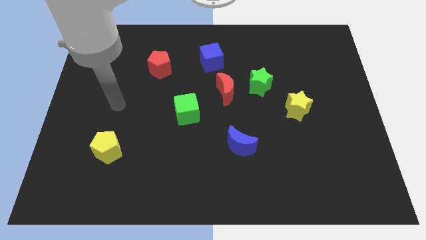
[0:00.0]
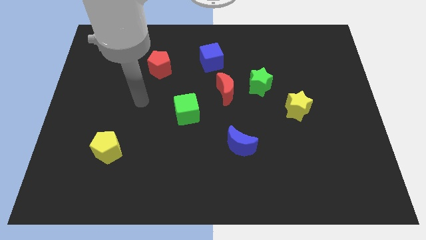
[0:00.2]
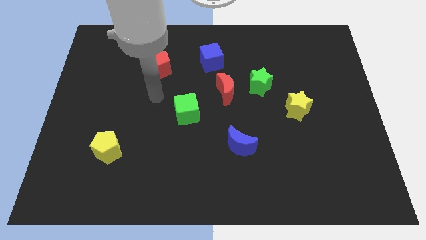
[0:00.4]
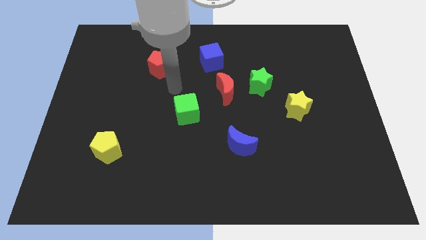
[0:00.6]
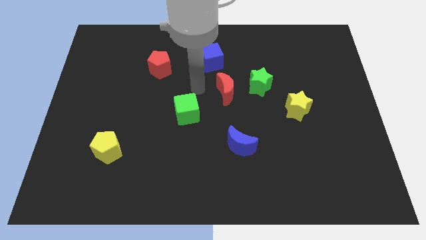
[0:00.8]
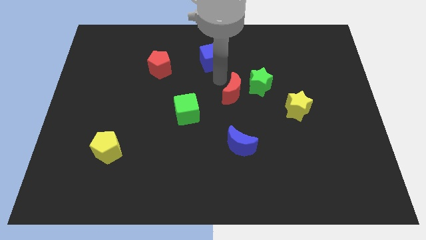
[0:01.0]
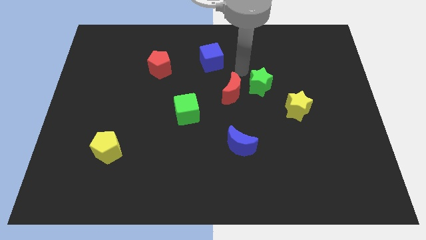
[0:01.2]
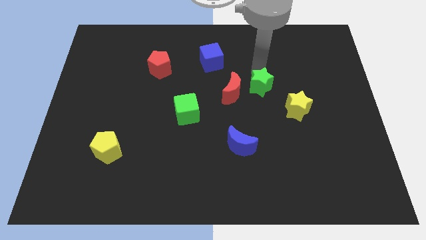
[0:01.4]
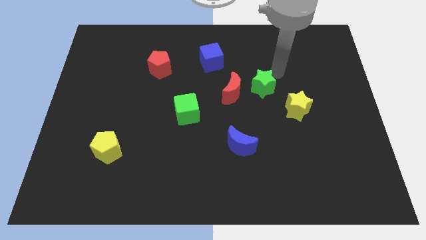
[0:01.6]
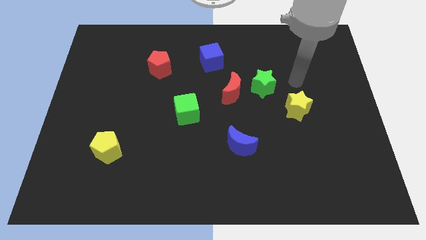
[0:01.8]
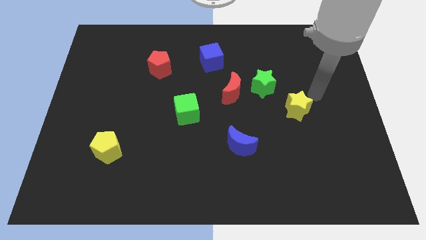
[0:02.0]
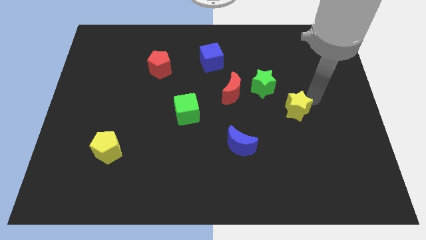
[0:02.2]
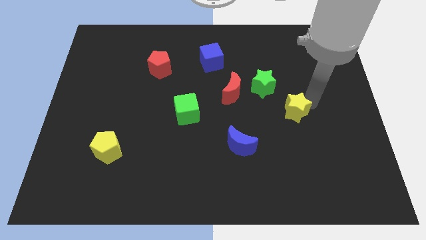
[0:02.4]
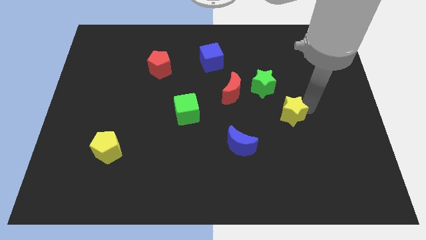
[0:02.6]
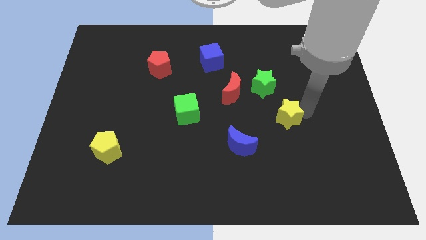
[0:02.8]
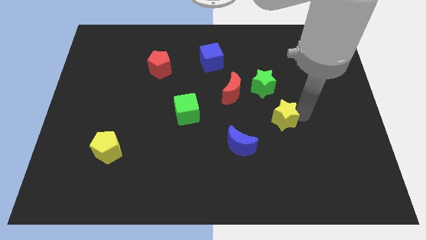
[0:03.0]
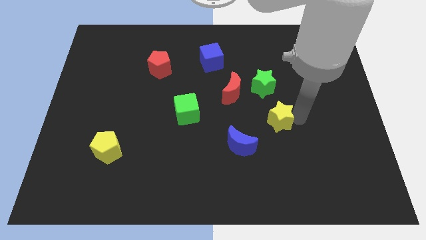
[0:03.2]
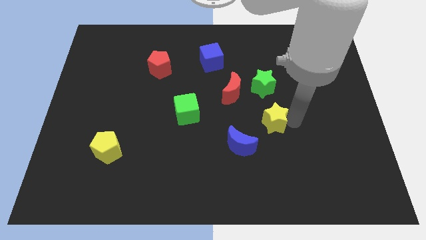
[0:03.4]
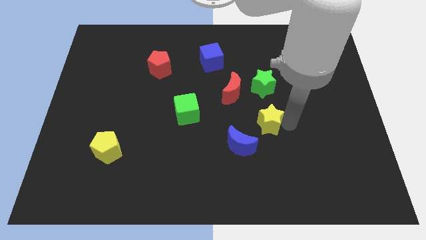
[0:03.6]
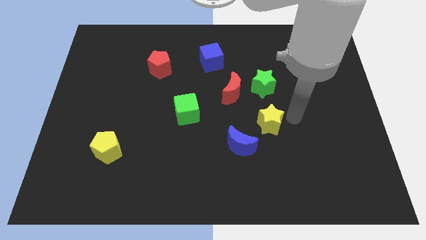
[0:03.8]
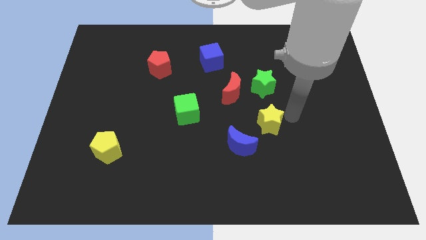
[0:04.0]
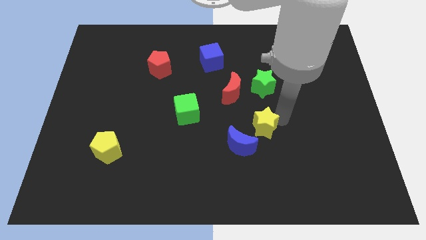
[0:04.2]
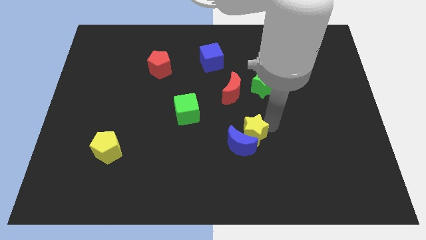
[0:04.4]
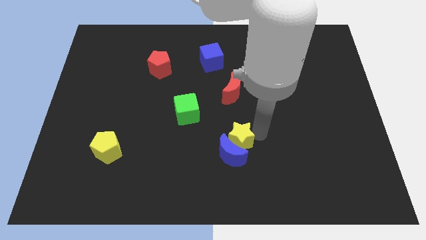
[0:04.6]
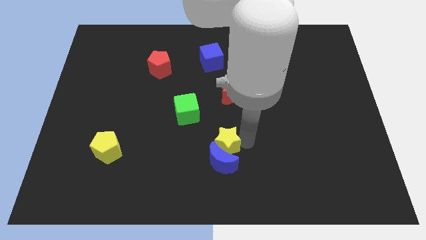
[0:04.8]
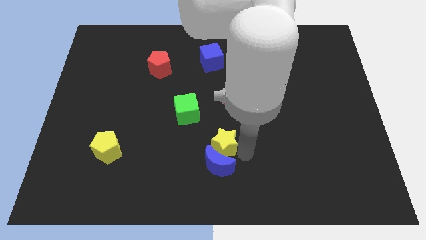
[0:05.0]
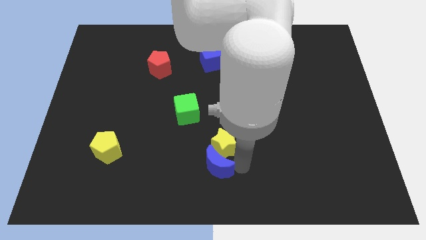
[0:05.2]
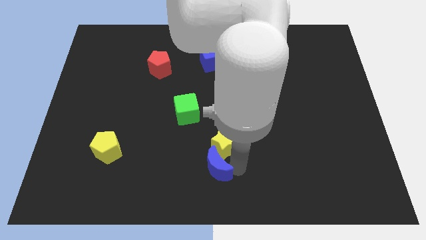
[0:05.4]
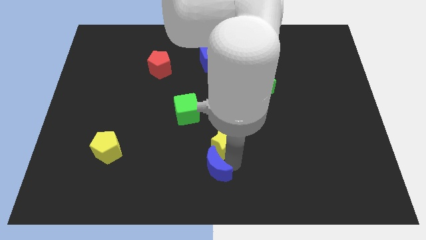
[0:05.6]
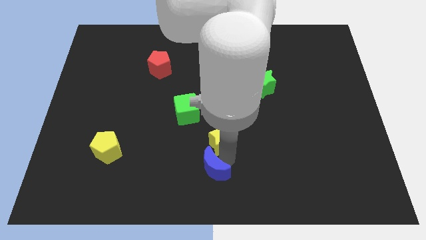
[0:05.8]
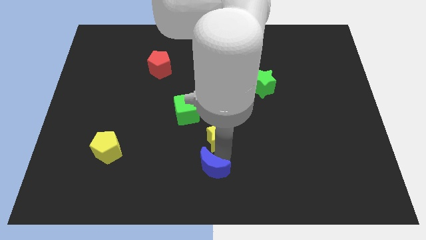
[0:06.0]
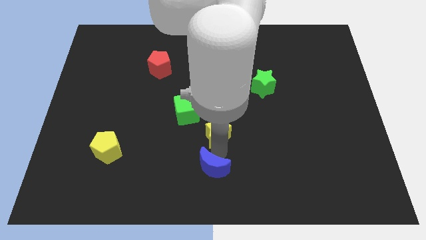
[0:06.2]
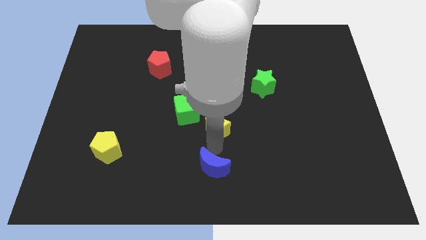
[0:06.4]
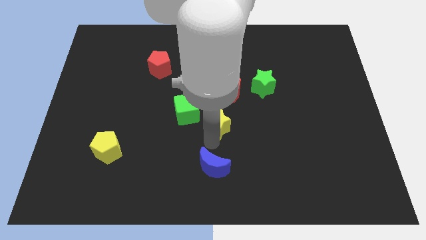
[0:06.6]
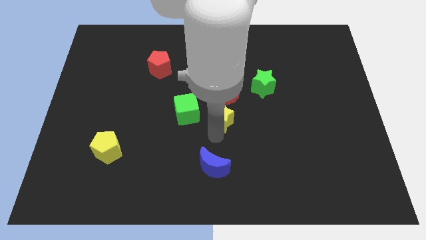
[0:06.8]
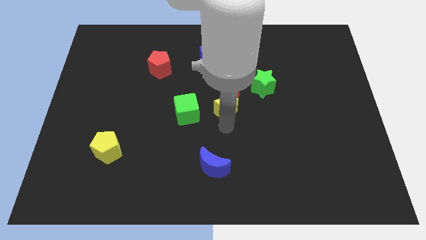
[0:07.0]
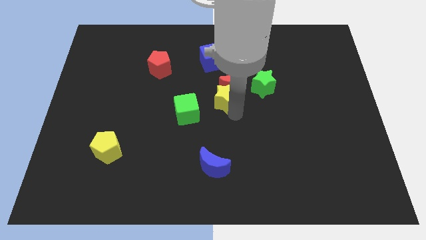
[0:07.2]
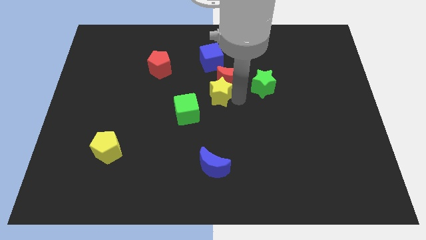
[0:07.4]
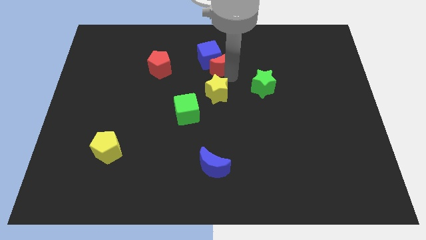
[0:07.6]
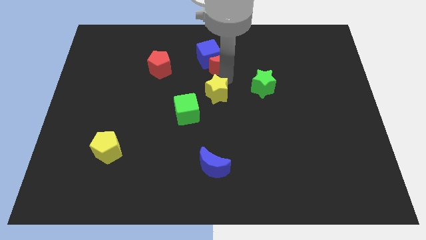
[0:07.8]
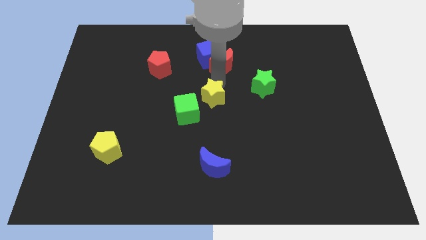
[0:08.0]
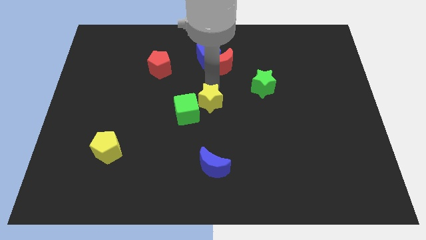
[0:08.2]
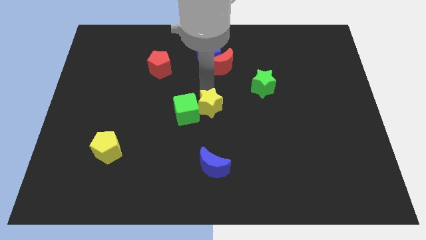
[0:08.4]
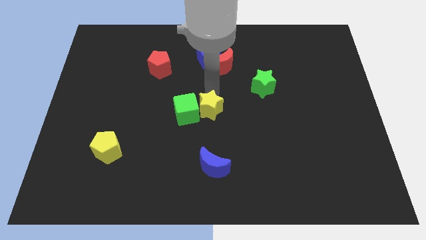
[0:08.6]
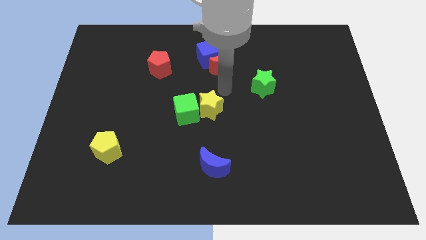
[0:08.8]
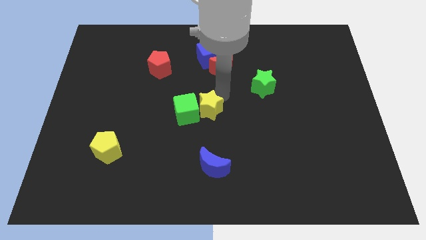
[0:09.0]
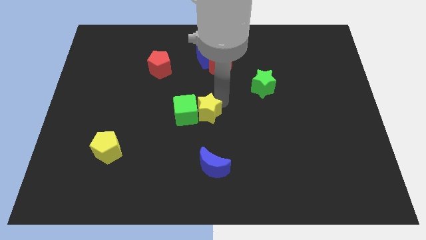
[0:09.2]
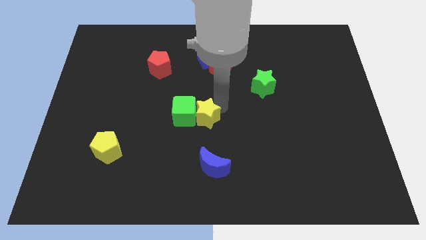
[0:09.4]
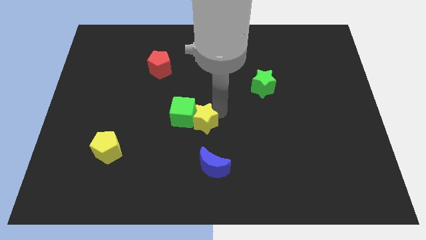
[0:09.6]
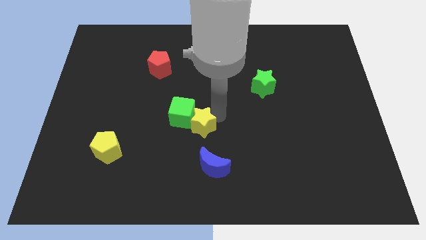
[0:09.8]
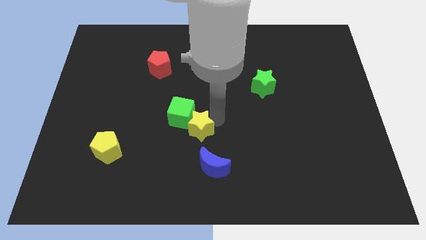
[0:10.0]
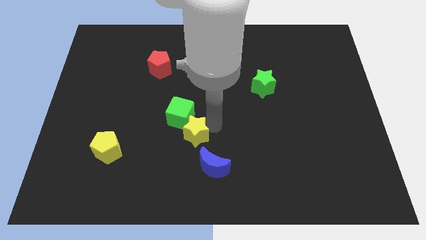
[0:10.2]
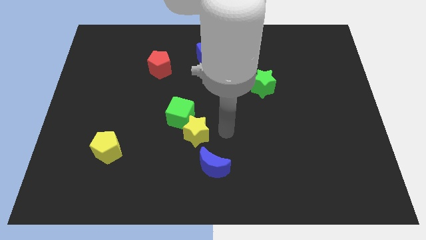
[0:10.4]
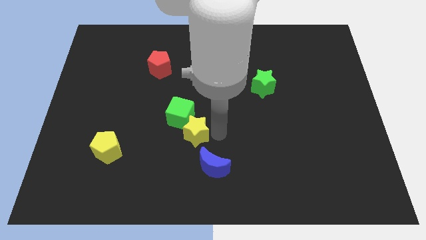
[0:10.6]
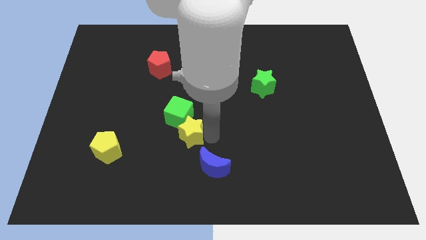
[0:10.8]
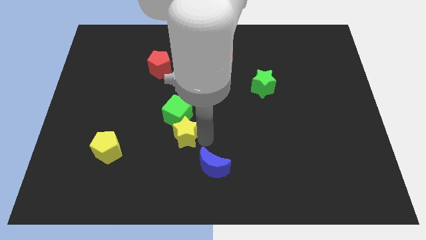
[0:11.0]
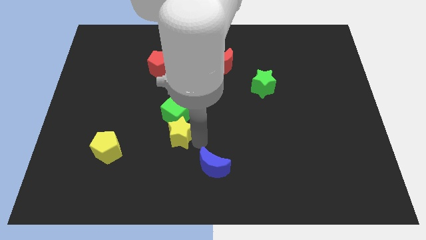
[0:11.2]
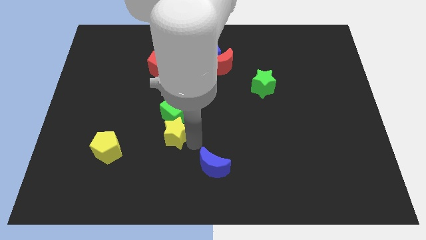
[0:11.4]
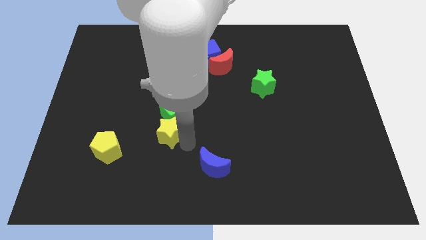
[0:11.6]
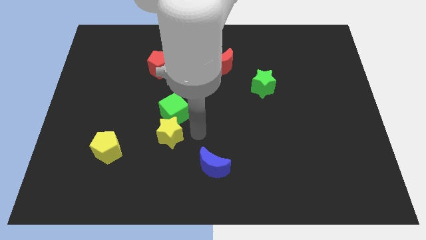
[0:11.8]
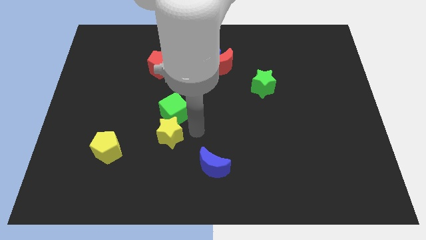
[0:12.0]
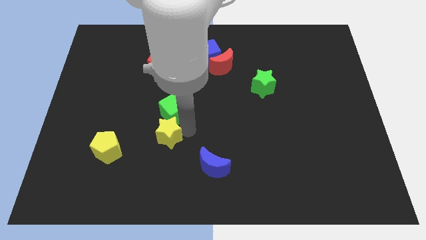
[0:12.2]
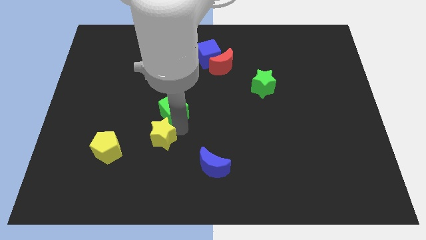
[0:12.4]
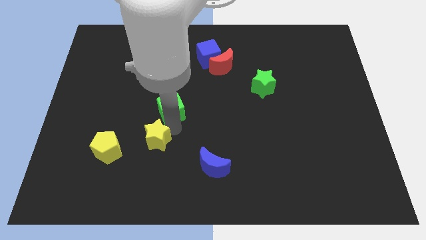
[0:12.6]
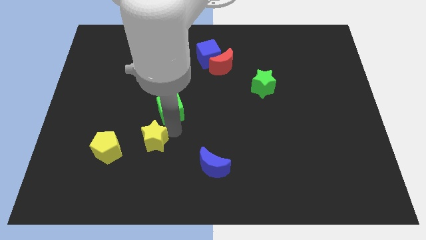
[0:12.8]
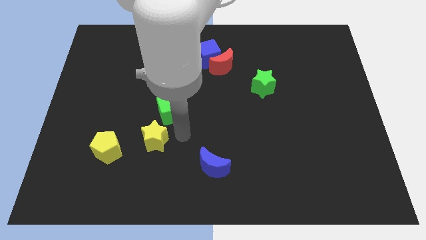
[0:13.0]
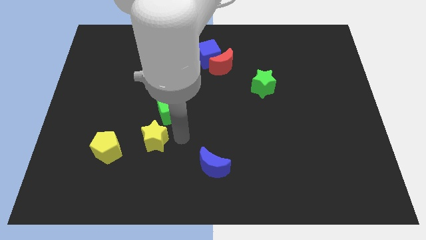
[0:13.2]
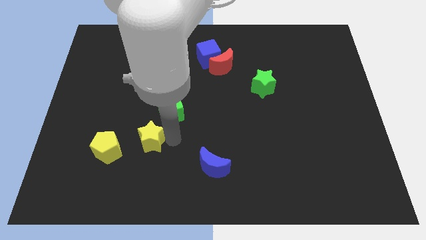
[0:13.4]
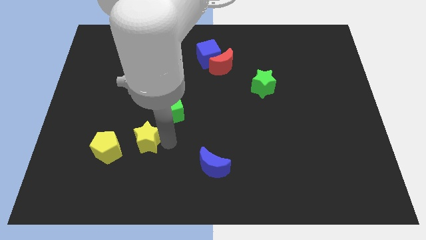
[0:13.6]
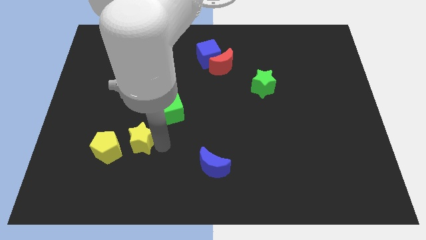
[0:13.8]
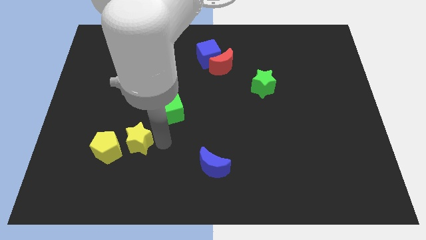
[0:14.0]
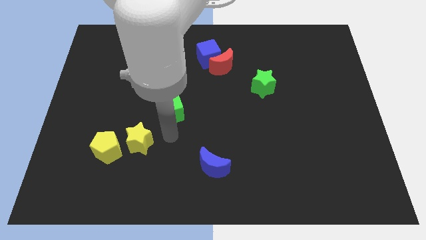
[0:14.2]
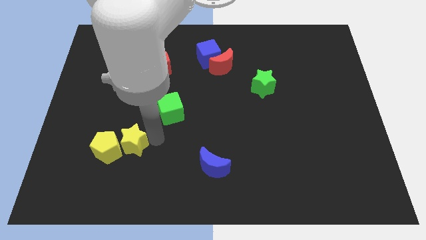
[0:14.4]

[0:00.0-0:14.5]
push the yellow star close to the yellow pentagon
